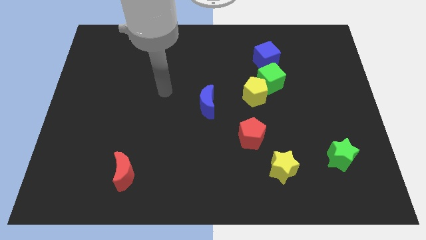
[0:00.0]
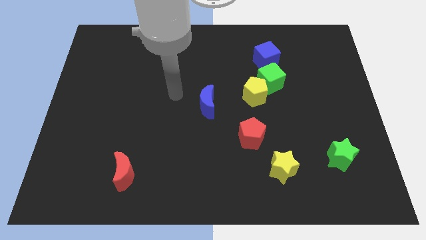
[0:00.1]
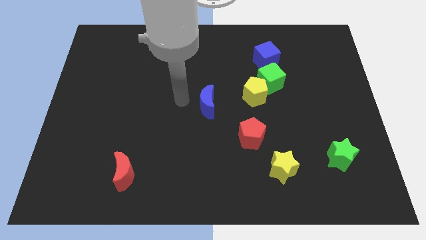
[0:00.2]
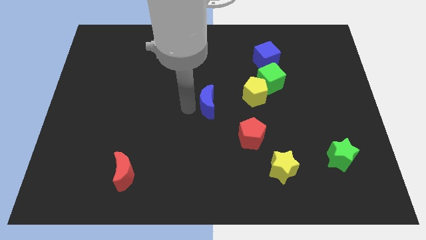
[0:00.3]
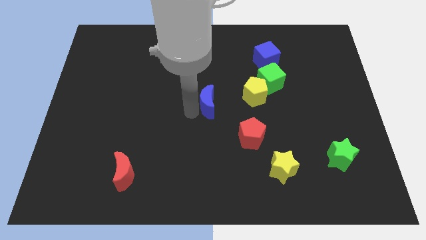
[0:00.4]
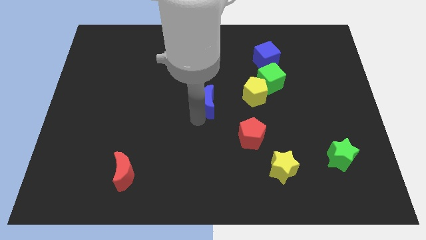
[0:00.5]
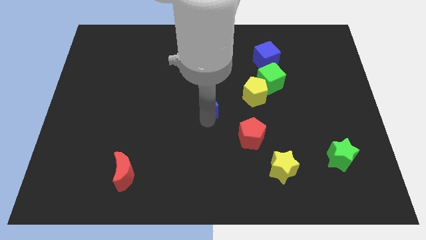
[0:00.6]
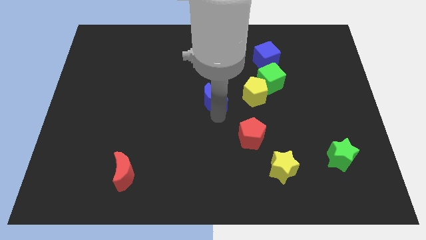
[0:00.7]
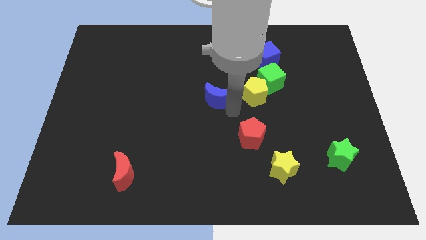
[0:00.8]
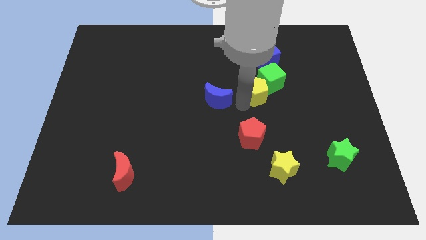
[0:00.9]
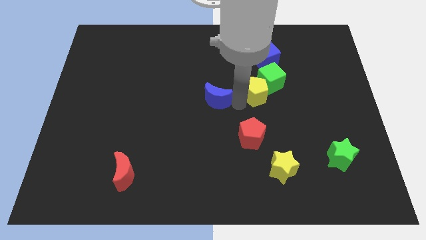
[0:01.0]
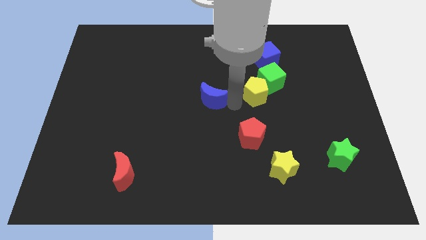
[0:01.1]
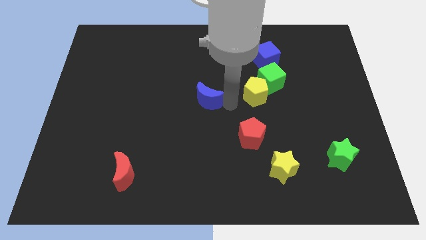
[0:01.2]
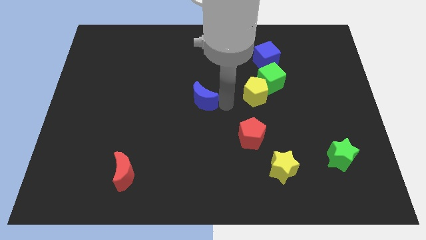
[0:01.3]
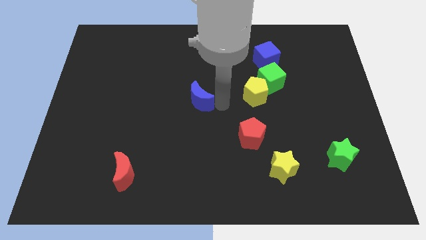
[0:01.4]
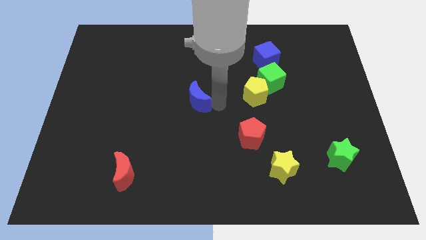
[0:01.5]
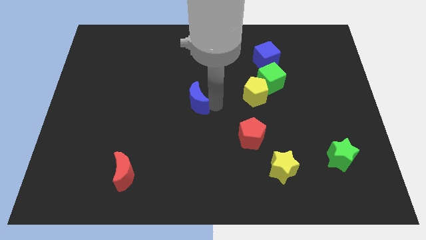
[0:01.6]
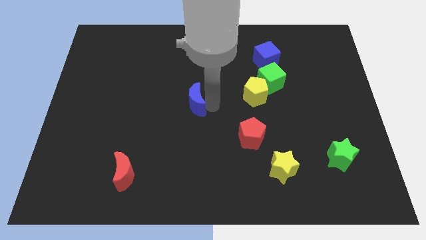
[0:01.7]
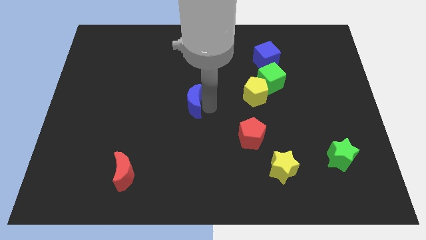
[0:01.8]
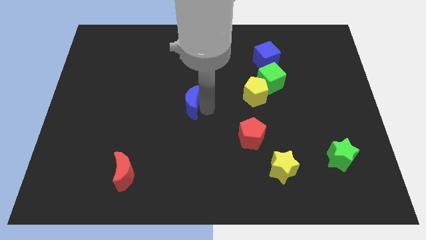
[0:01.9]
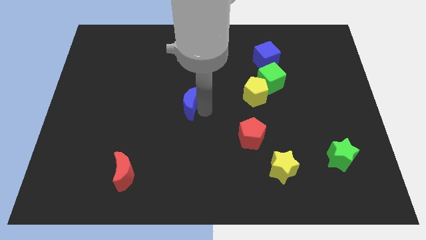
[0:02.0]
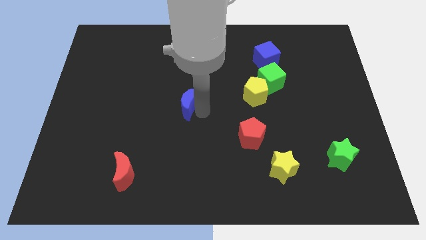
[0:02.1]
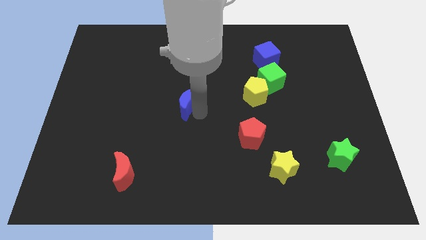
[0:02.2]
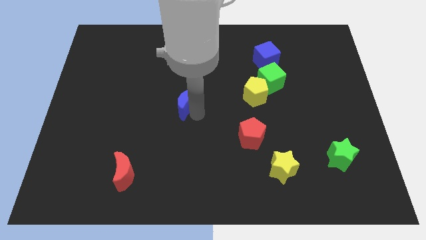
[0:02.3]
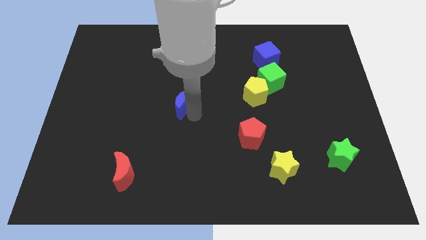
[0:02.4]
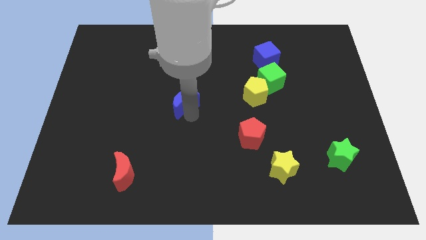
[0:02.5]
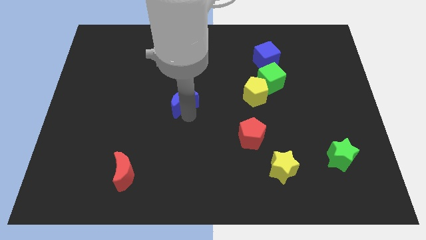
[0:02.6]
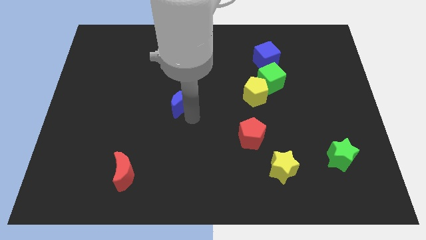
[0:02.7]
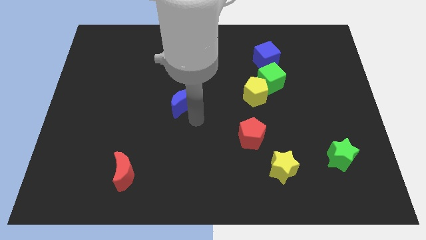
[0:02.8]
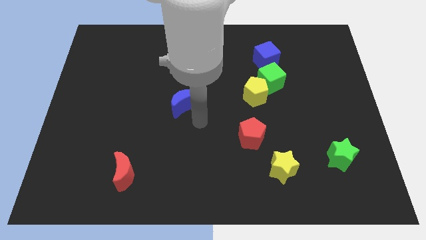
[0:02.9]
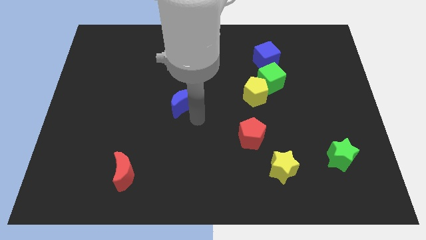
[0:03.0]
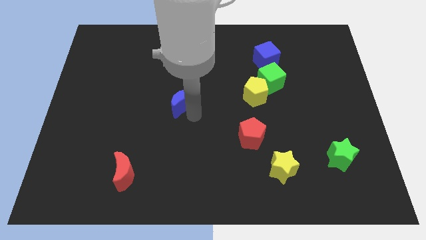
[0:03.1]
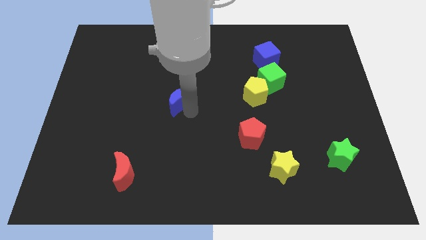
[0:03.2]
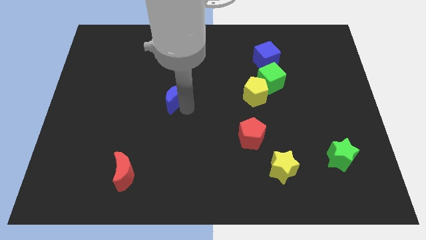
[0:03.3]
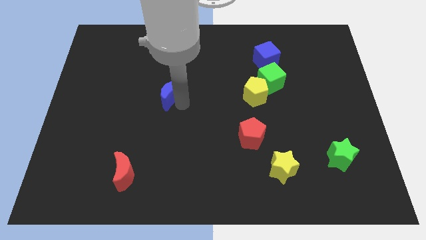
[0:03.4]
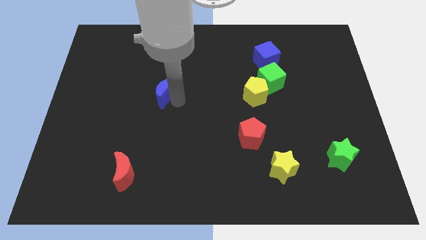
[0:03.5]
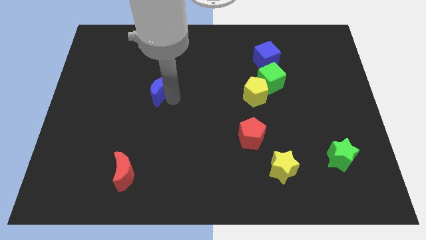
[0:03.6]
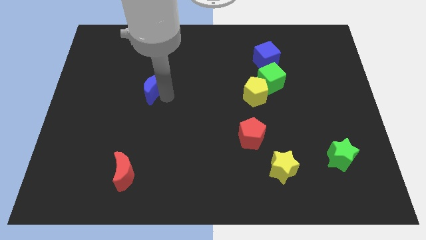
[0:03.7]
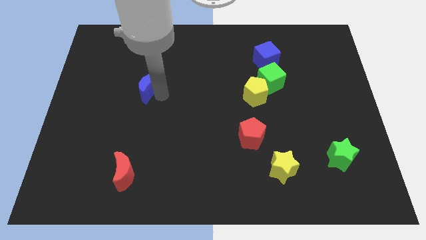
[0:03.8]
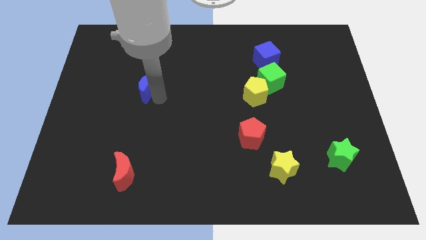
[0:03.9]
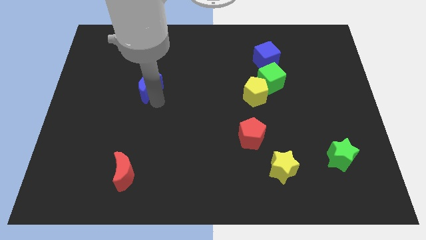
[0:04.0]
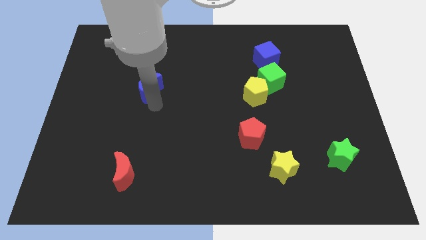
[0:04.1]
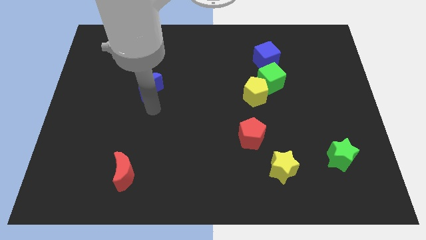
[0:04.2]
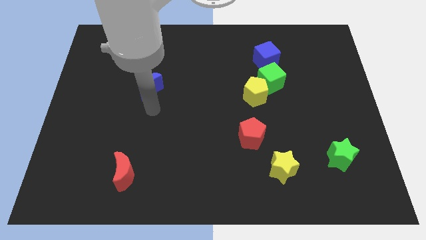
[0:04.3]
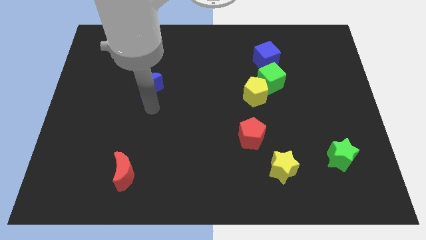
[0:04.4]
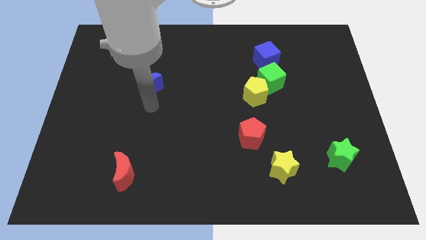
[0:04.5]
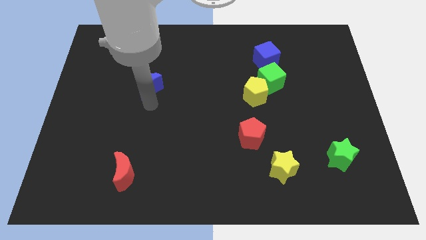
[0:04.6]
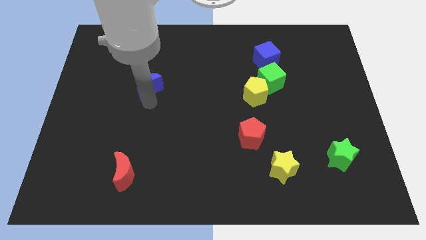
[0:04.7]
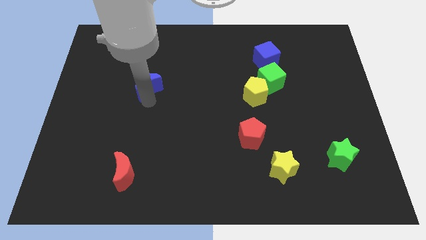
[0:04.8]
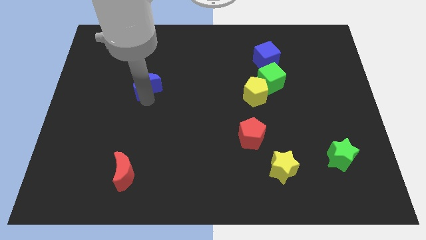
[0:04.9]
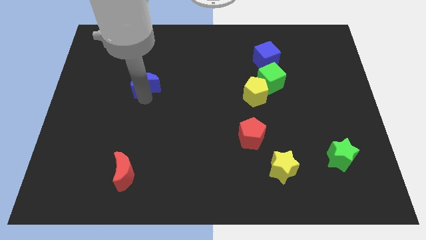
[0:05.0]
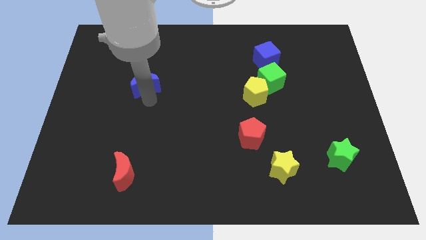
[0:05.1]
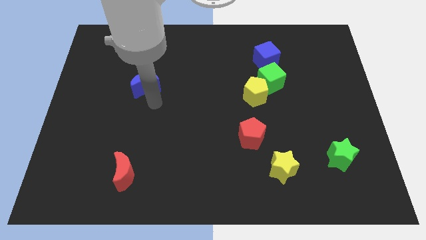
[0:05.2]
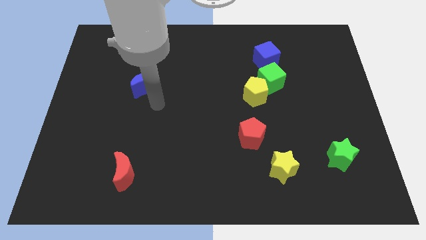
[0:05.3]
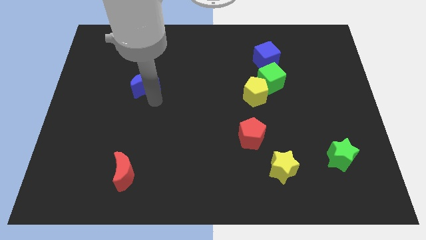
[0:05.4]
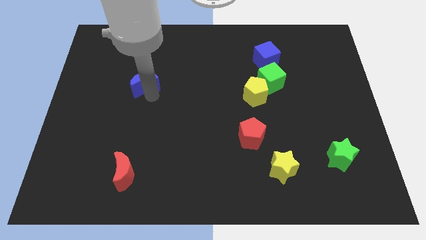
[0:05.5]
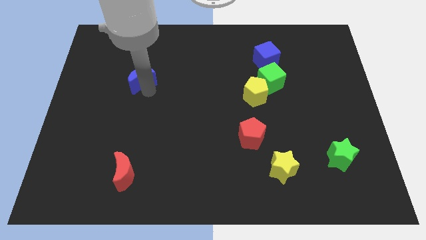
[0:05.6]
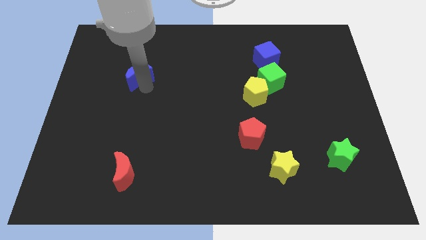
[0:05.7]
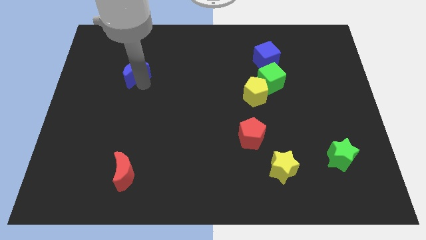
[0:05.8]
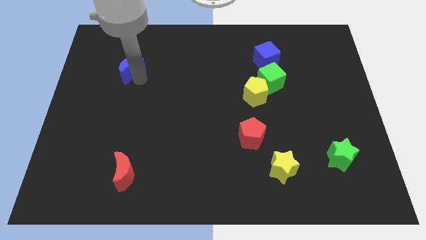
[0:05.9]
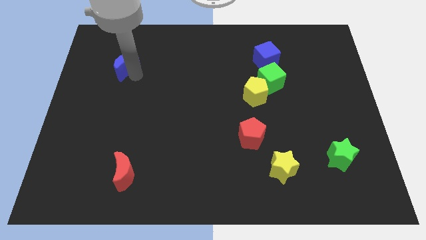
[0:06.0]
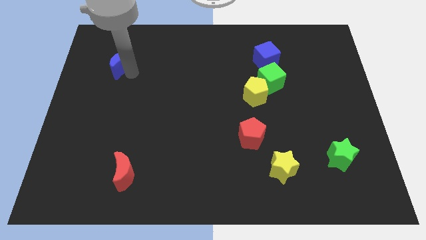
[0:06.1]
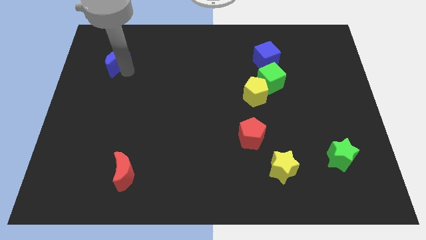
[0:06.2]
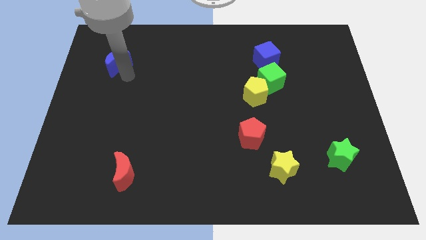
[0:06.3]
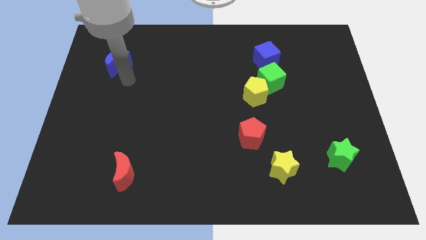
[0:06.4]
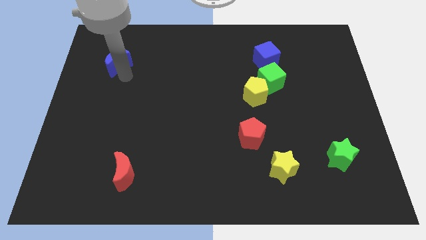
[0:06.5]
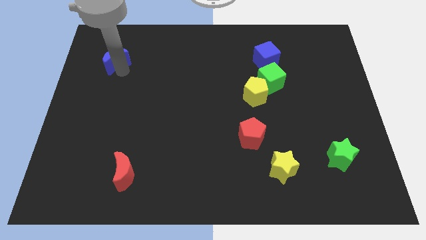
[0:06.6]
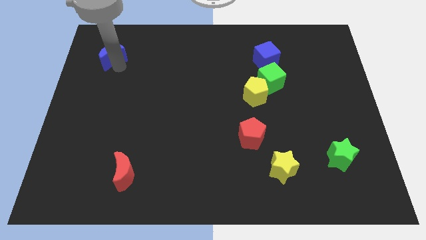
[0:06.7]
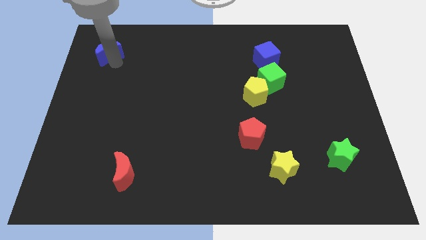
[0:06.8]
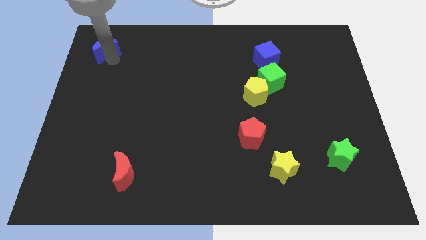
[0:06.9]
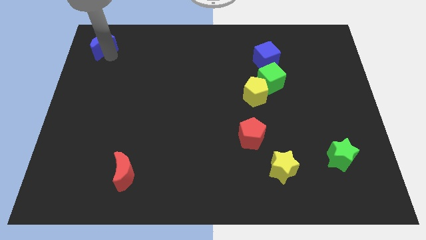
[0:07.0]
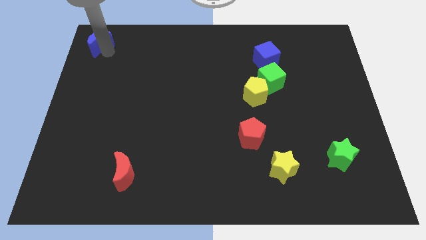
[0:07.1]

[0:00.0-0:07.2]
move the blue moon to the upper left corner
